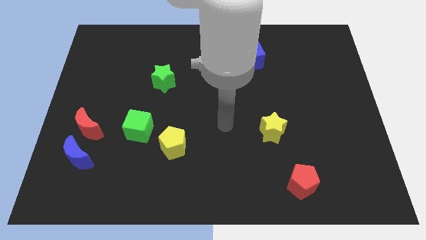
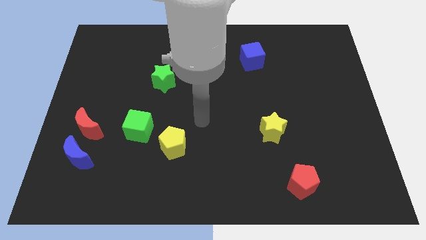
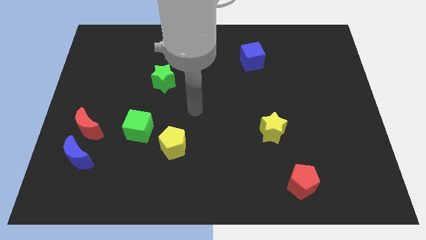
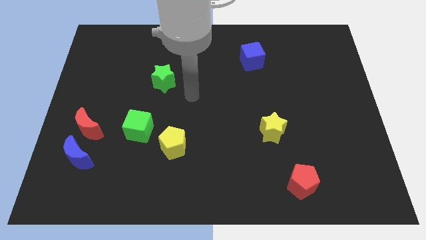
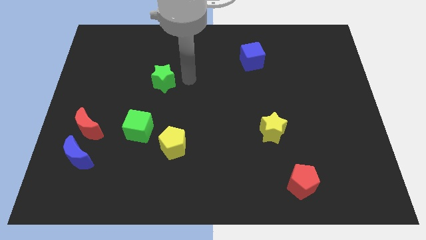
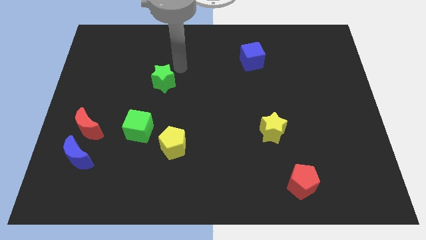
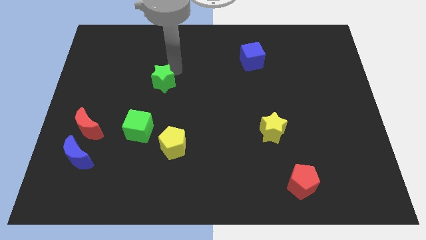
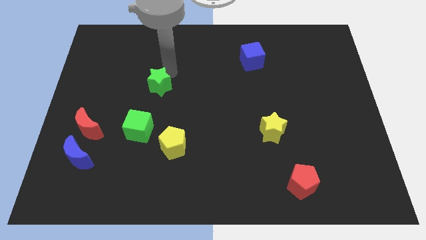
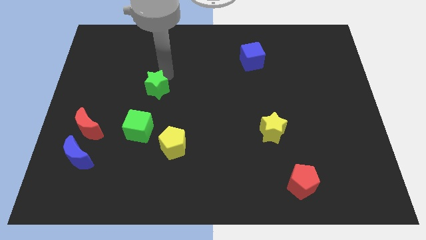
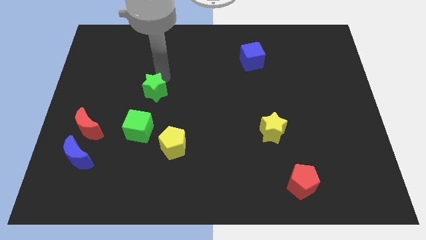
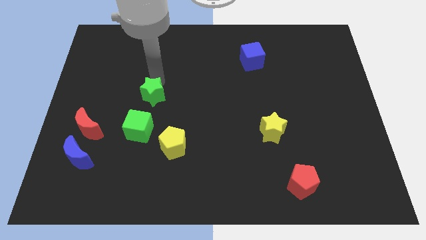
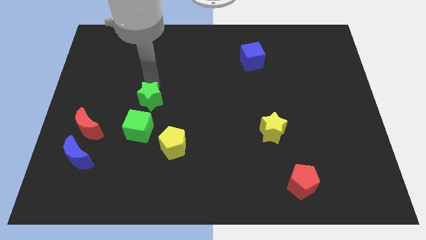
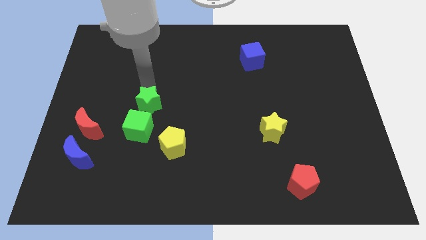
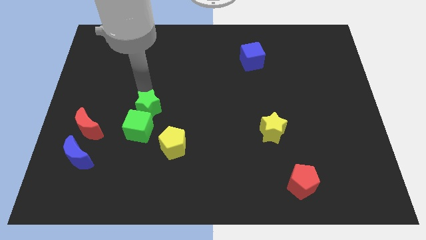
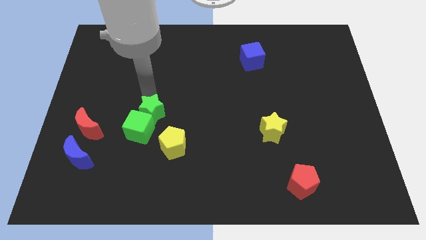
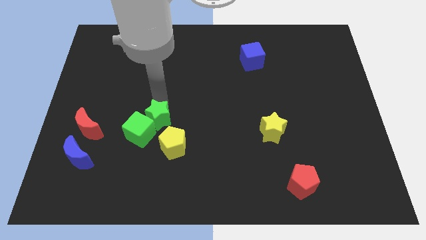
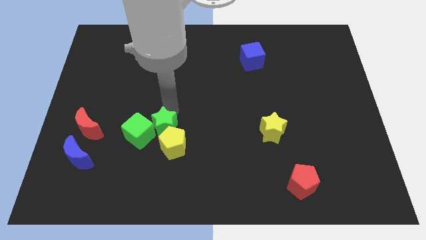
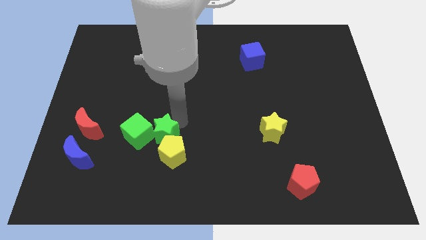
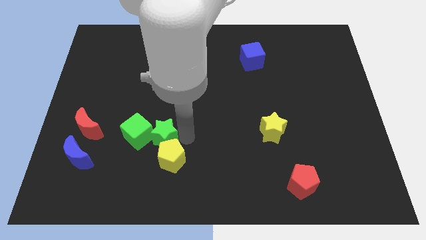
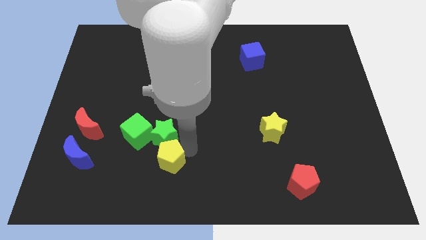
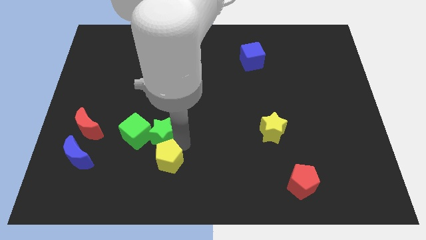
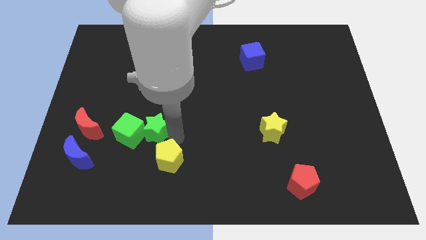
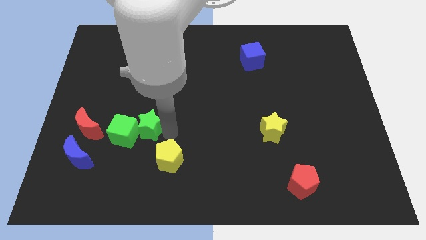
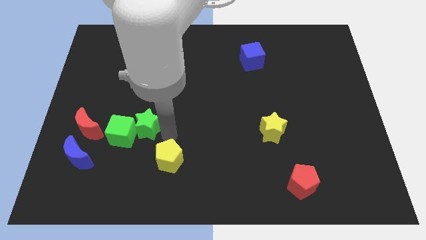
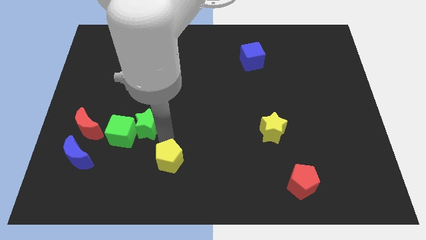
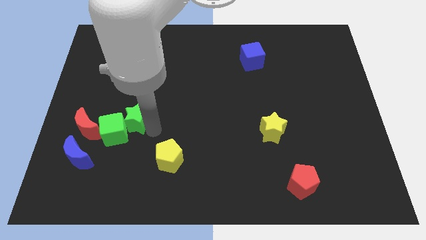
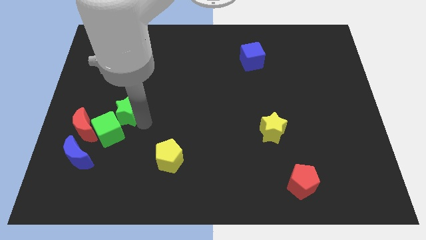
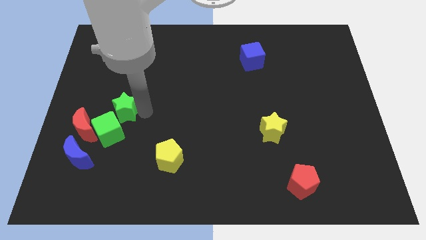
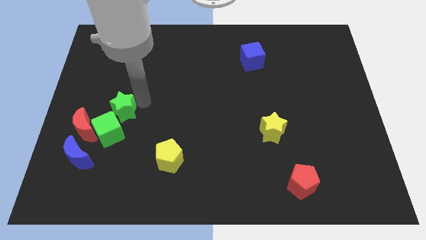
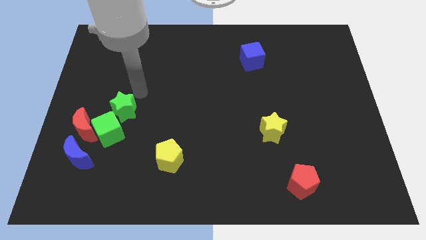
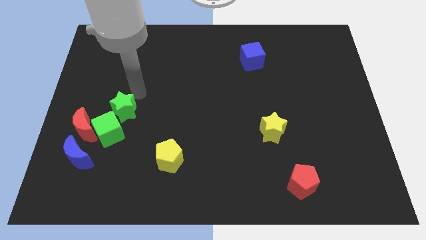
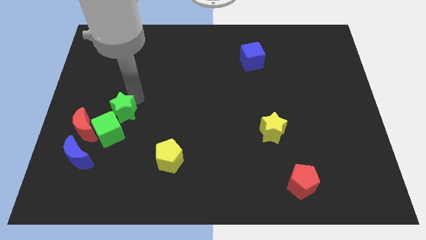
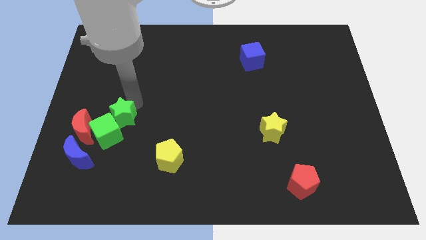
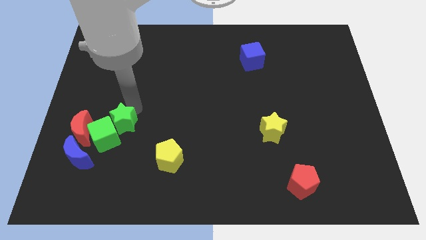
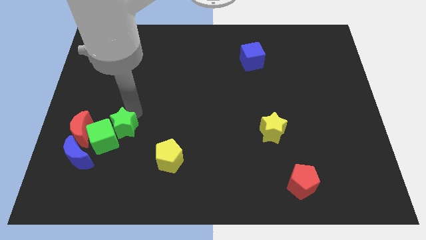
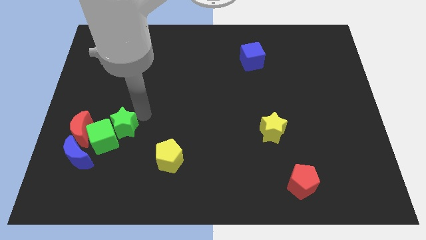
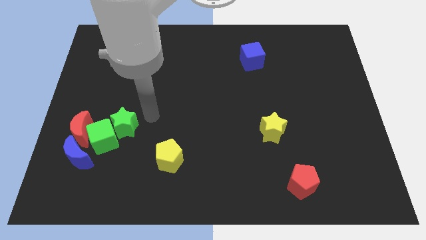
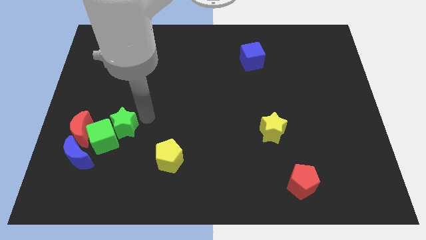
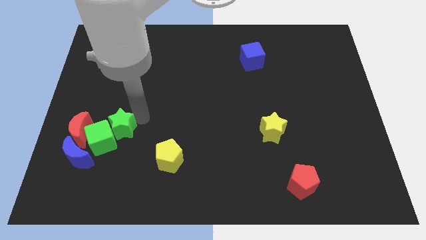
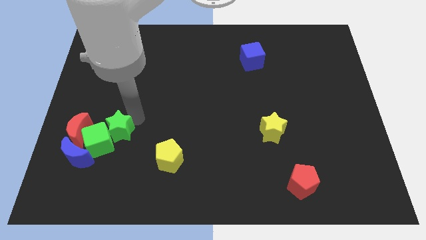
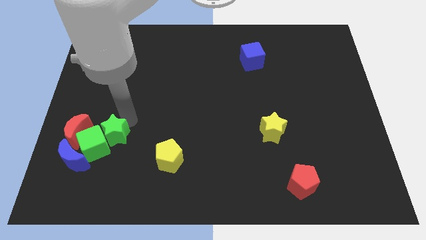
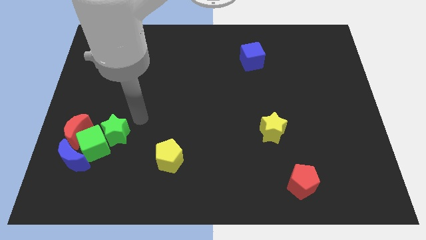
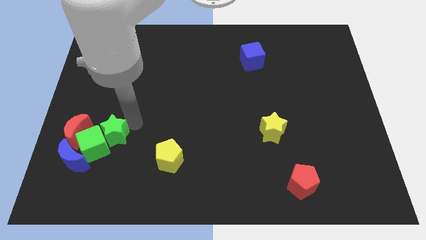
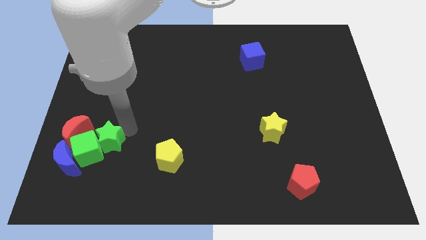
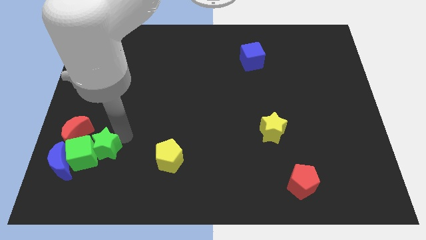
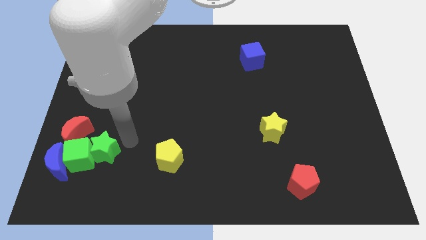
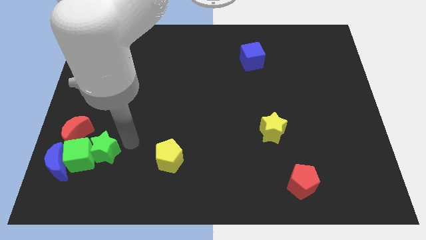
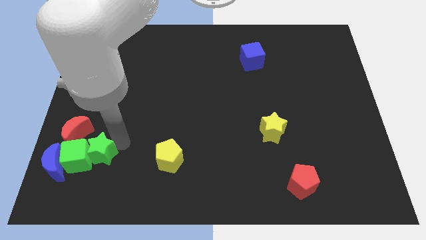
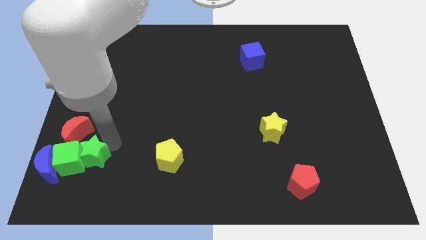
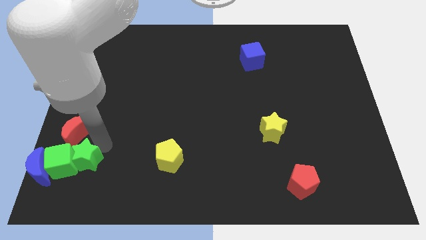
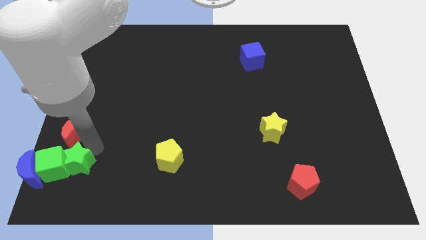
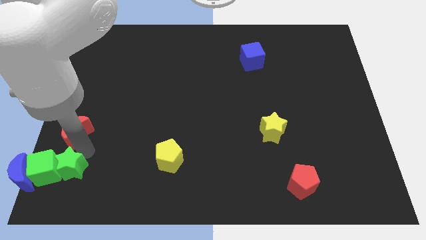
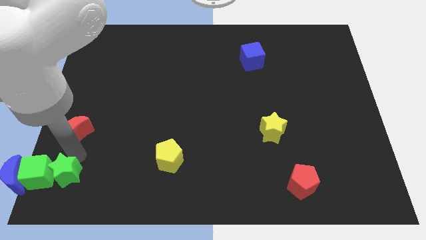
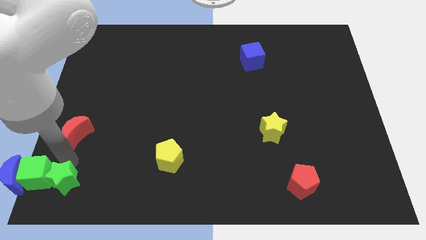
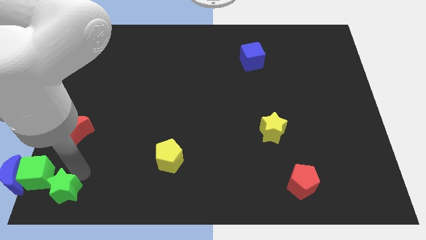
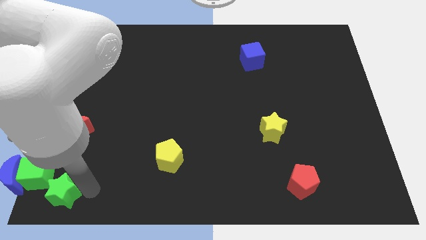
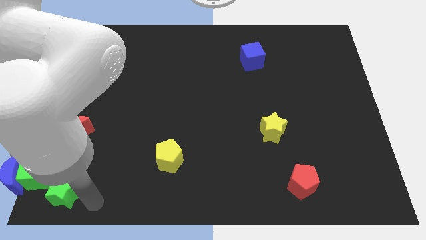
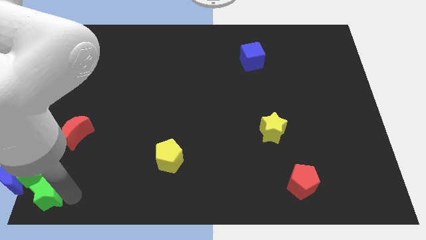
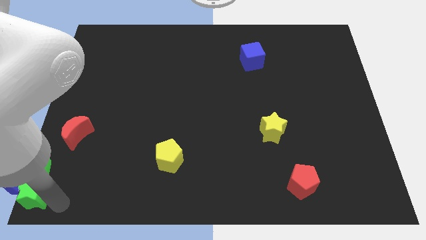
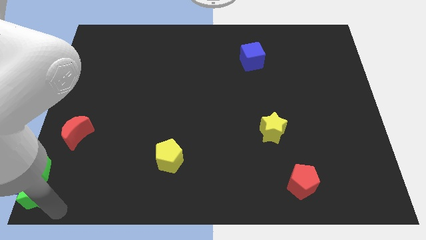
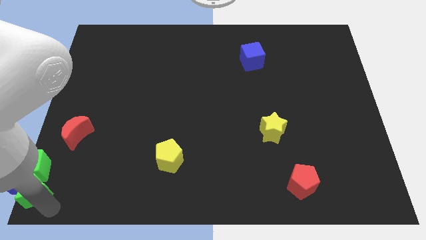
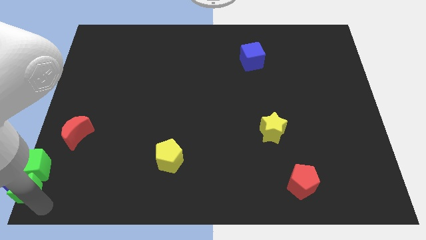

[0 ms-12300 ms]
push the green star next to the blue moon

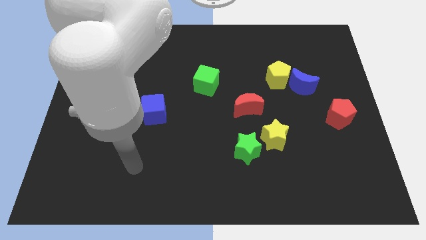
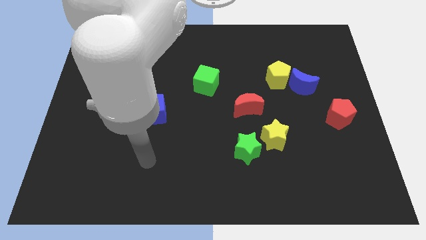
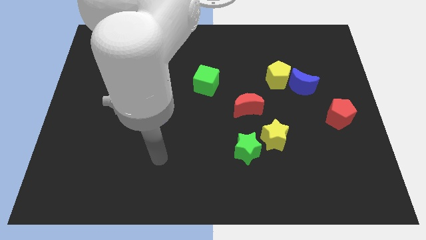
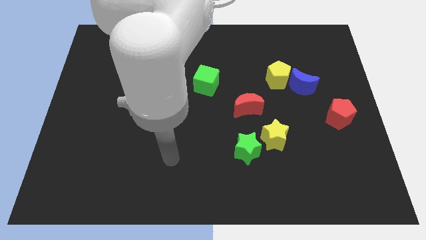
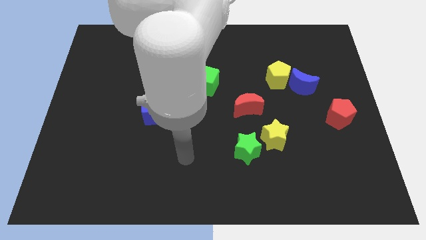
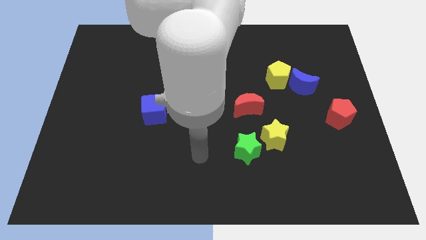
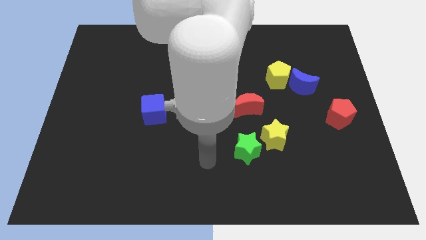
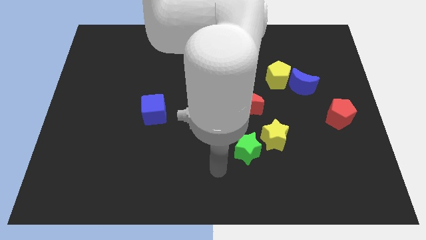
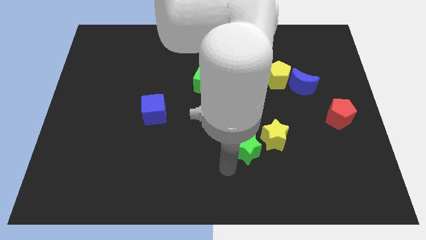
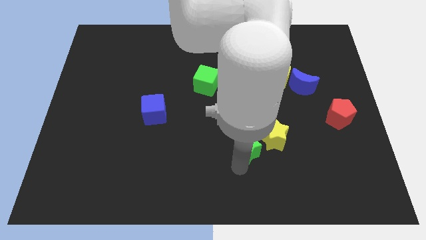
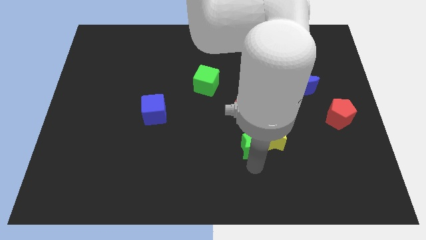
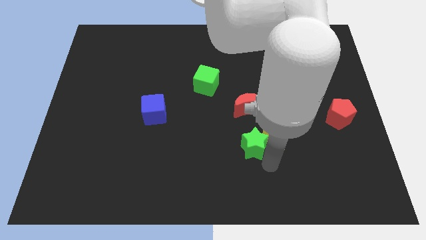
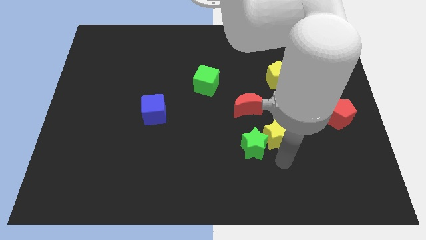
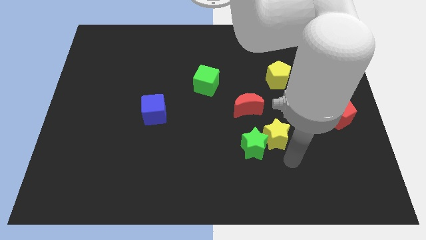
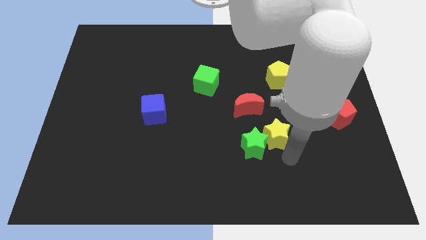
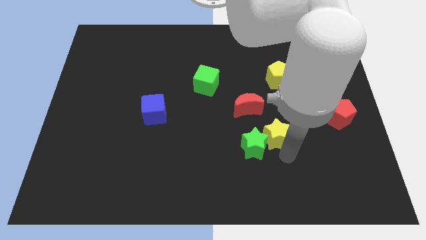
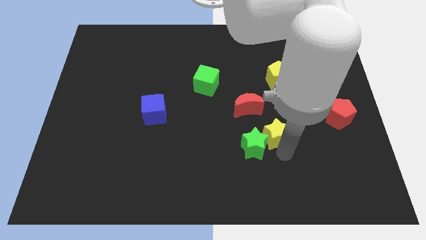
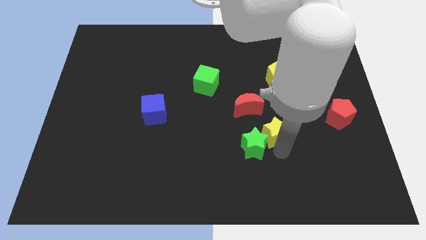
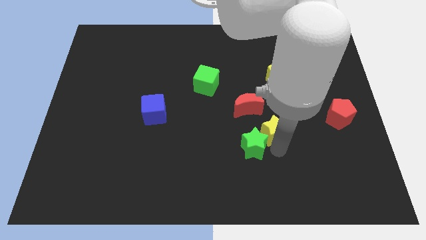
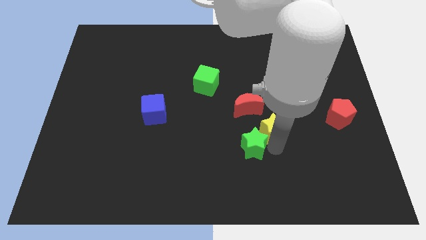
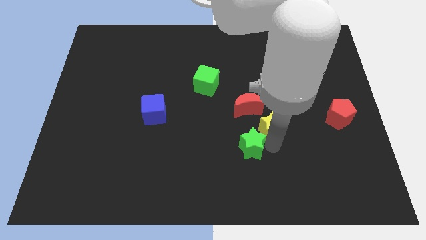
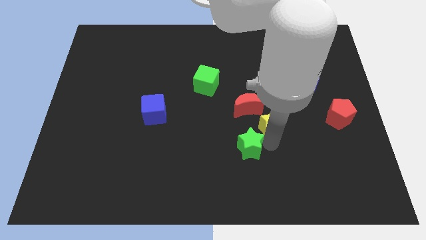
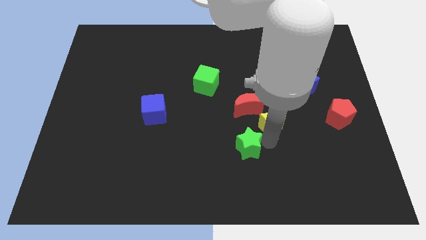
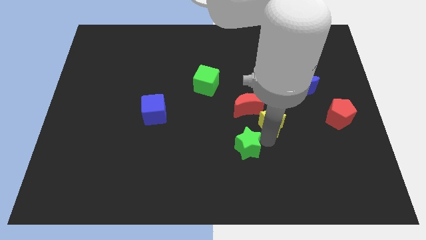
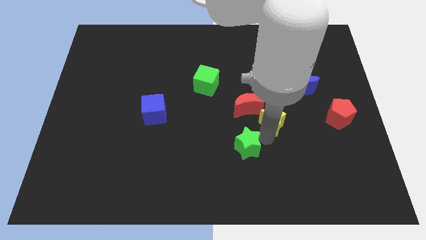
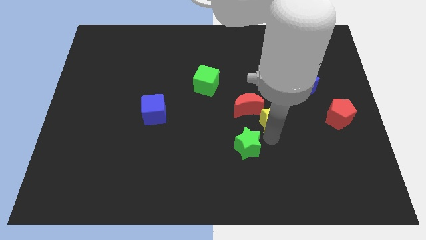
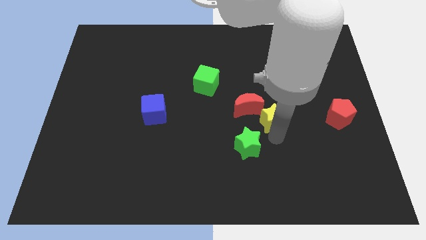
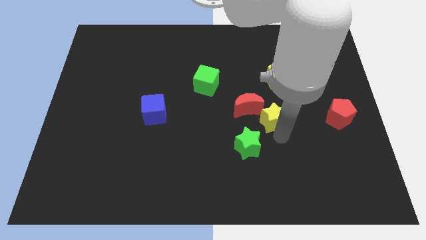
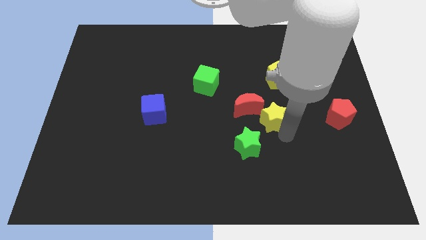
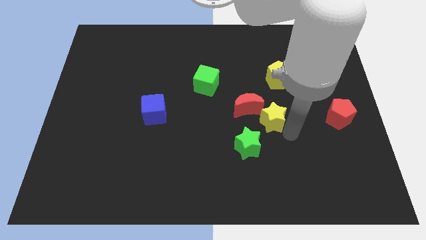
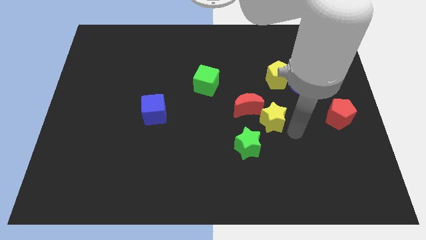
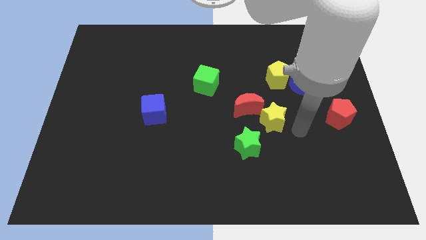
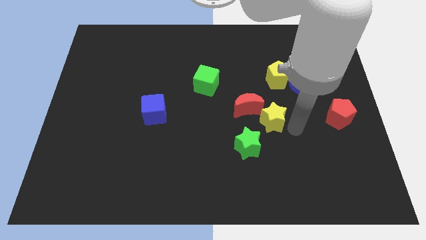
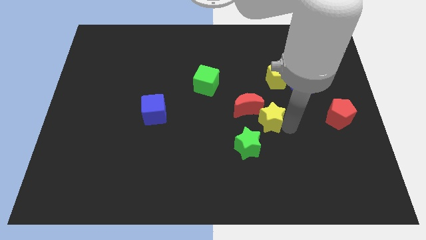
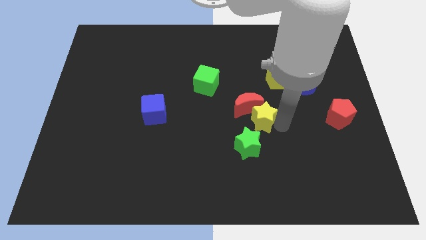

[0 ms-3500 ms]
slide the yellow star towards the red moon
